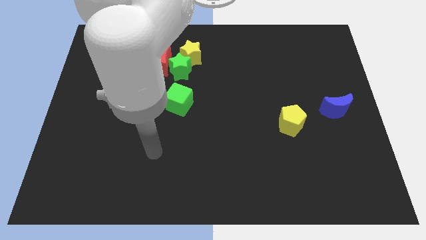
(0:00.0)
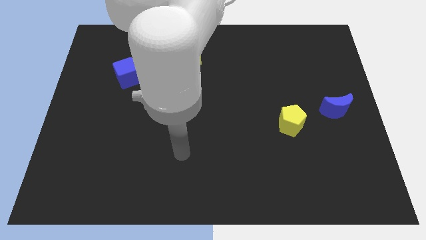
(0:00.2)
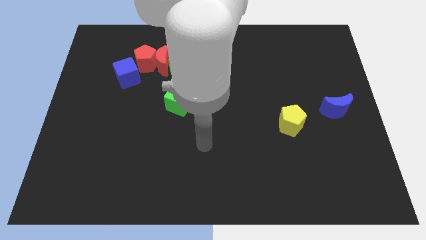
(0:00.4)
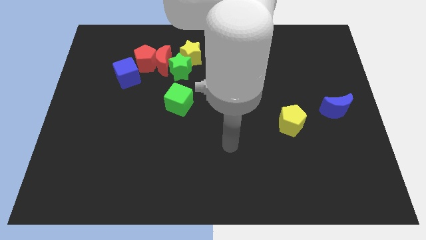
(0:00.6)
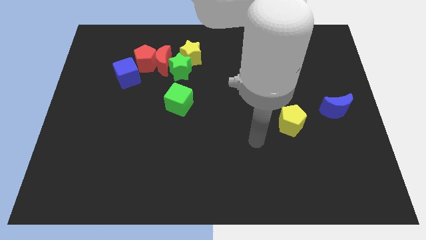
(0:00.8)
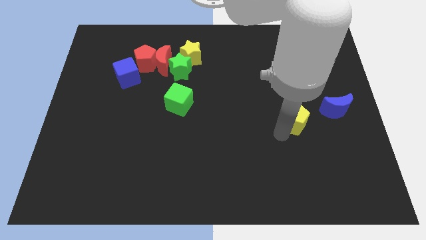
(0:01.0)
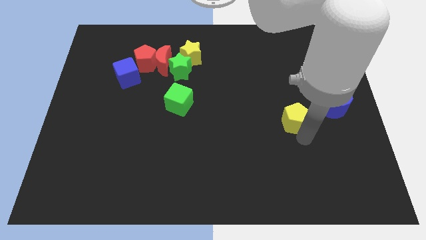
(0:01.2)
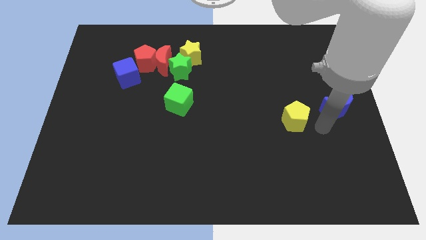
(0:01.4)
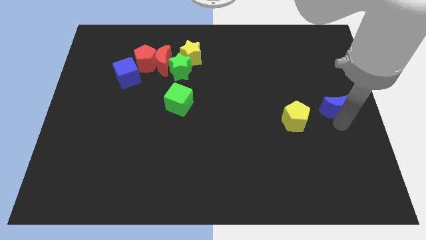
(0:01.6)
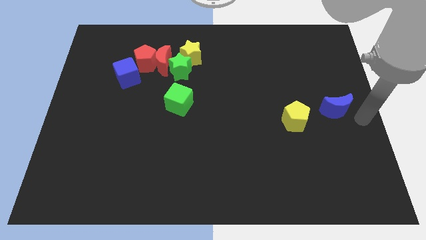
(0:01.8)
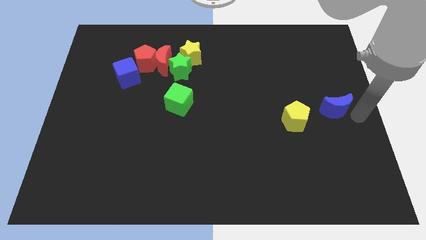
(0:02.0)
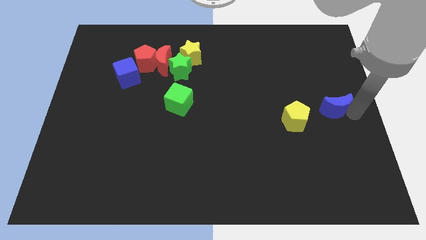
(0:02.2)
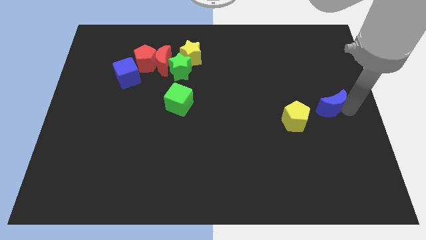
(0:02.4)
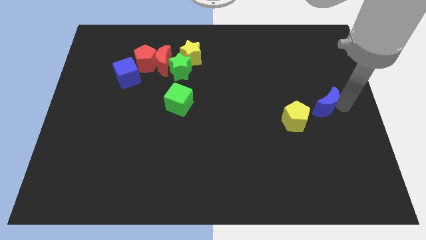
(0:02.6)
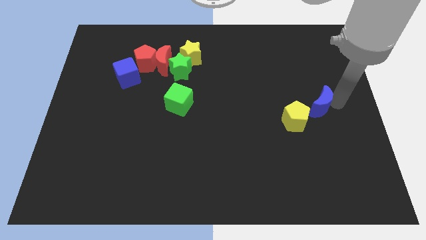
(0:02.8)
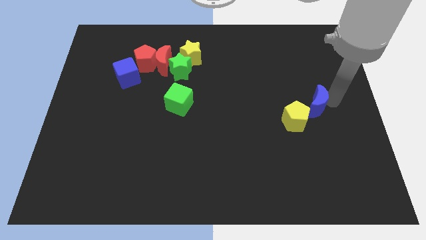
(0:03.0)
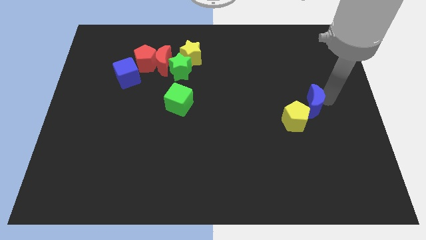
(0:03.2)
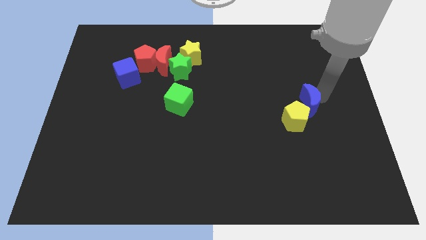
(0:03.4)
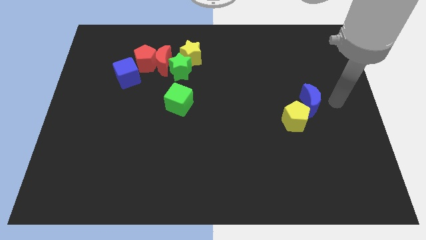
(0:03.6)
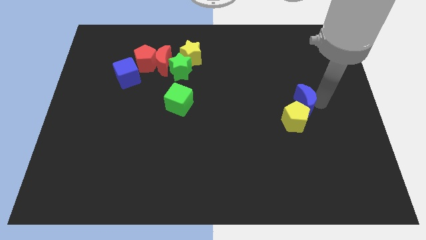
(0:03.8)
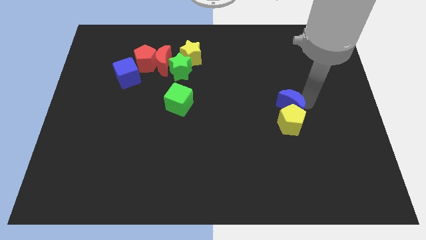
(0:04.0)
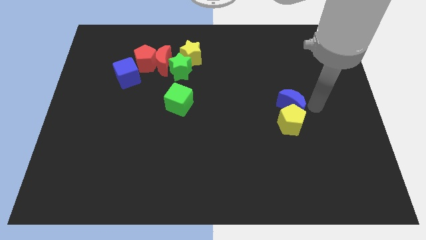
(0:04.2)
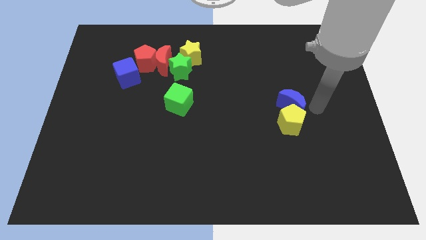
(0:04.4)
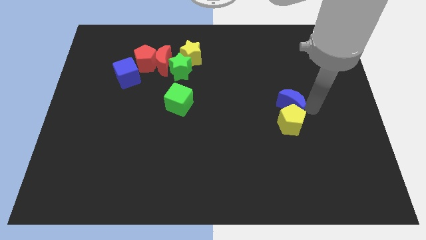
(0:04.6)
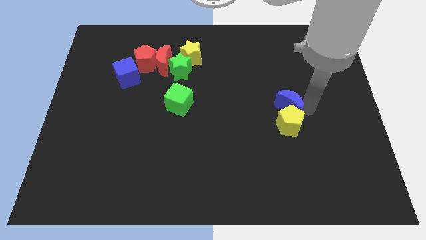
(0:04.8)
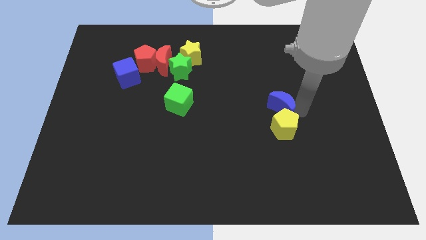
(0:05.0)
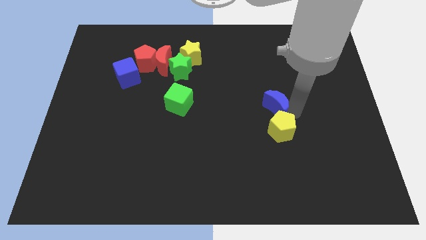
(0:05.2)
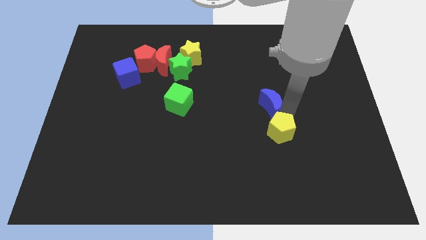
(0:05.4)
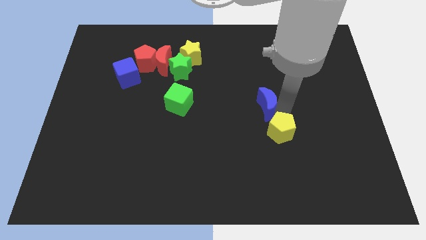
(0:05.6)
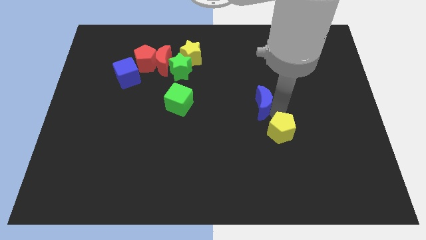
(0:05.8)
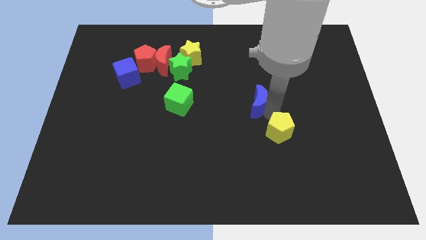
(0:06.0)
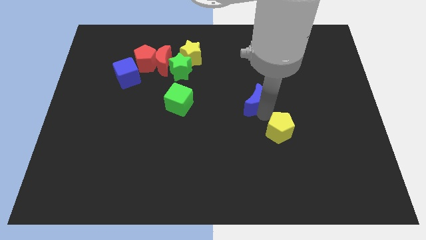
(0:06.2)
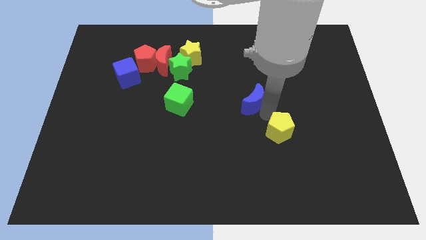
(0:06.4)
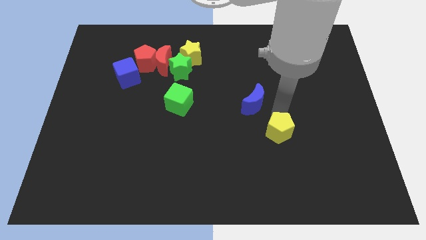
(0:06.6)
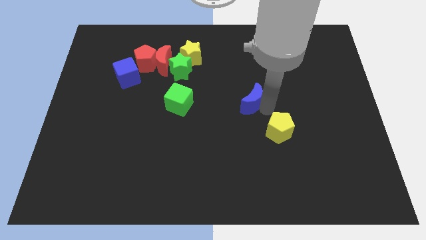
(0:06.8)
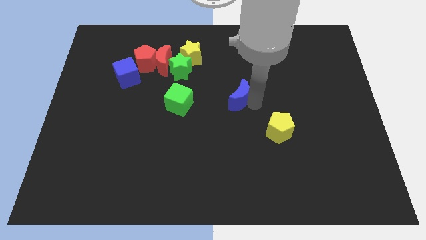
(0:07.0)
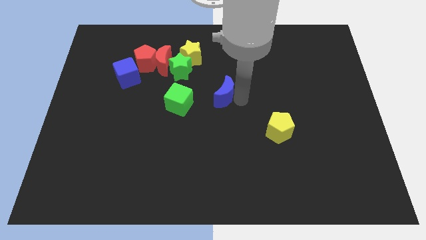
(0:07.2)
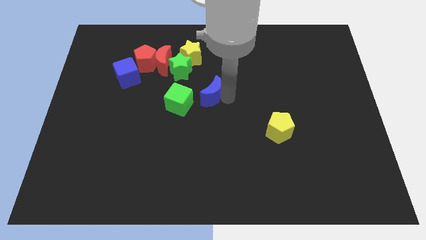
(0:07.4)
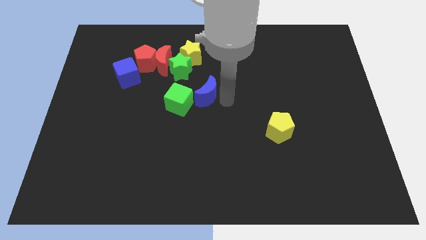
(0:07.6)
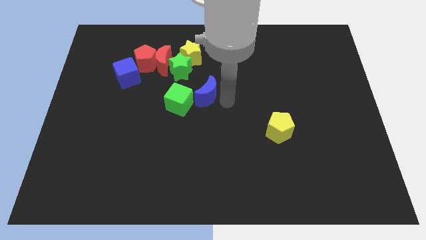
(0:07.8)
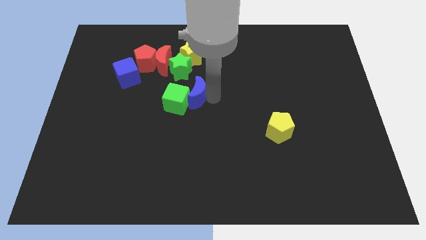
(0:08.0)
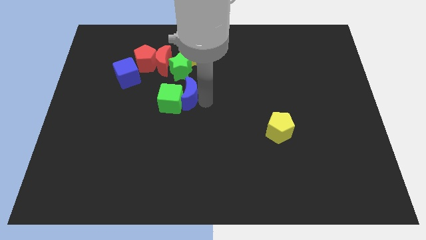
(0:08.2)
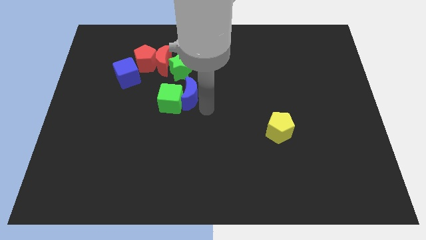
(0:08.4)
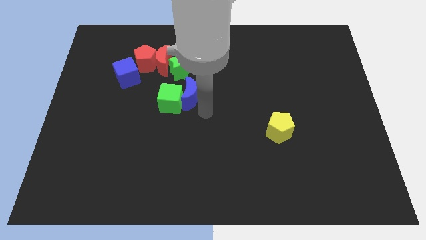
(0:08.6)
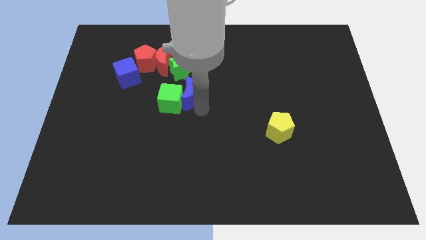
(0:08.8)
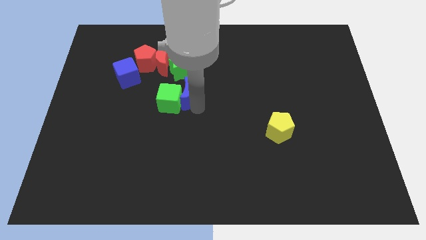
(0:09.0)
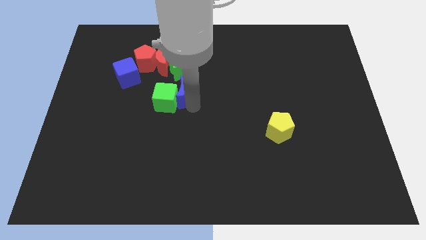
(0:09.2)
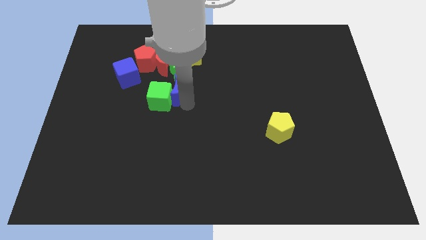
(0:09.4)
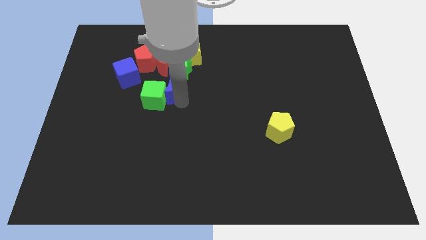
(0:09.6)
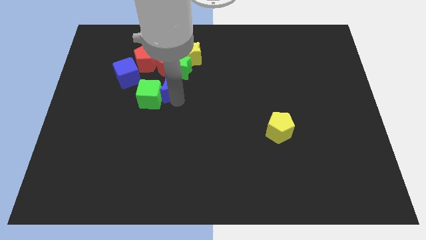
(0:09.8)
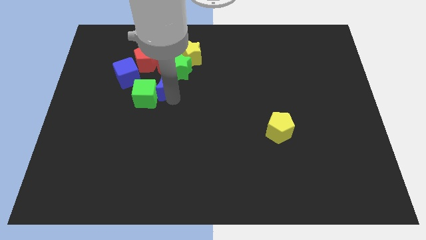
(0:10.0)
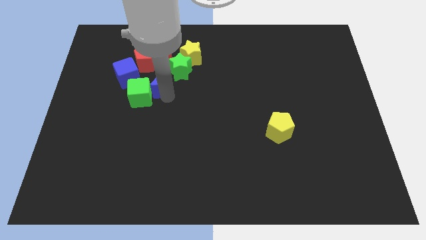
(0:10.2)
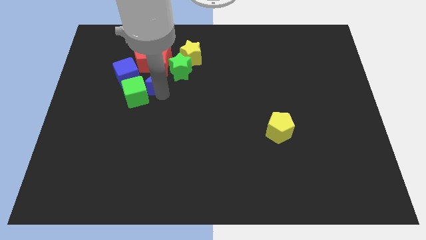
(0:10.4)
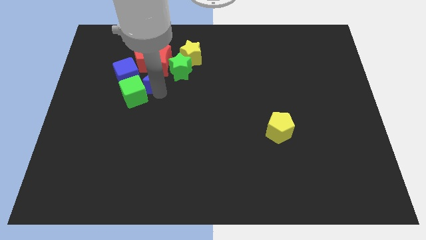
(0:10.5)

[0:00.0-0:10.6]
move the blue moon to the red moon

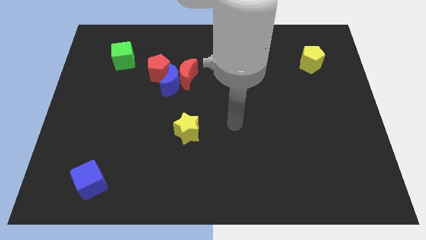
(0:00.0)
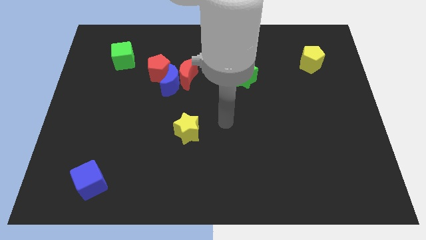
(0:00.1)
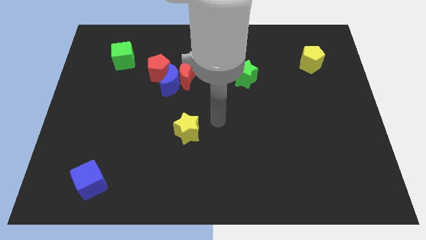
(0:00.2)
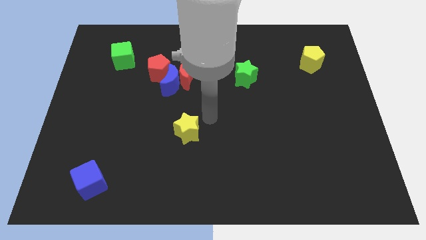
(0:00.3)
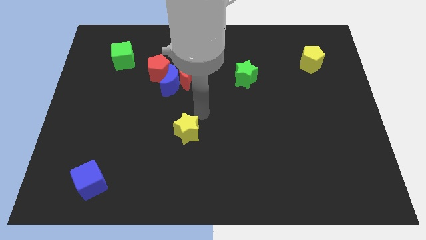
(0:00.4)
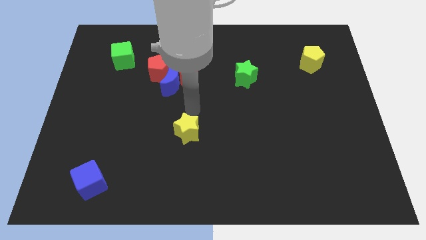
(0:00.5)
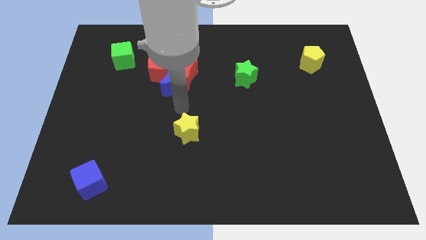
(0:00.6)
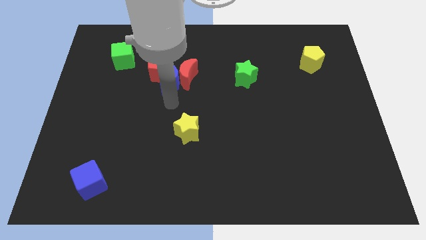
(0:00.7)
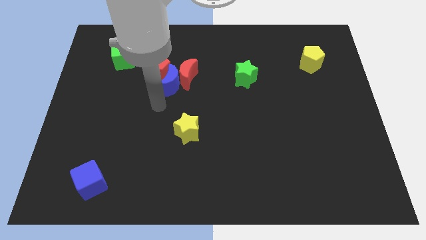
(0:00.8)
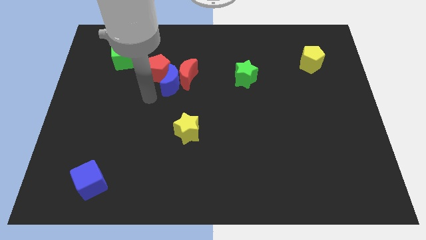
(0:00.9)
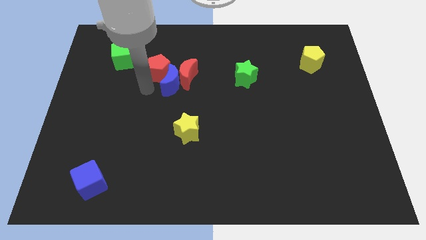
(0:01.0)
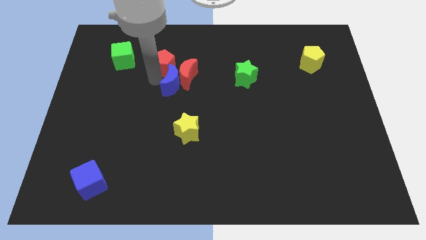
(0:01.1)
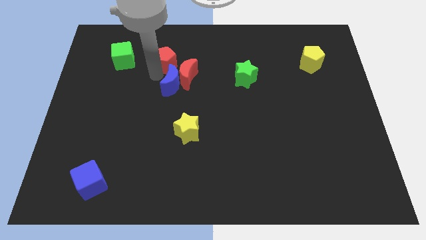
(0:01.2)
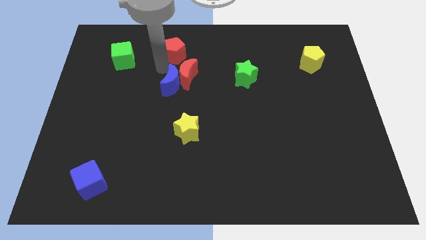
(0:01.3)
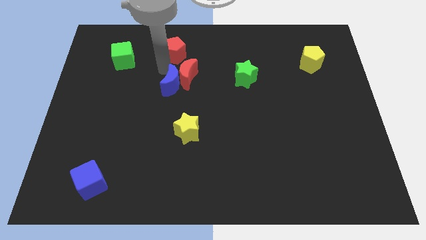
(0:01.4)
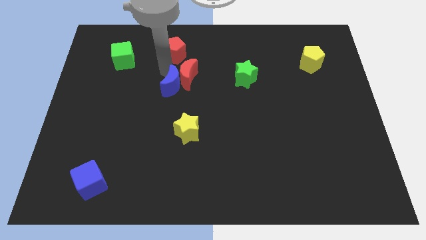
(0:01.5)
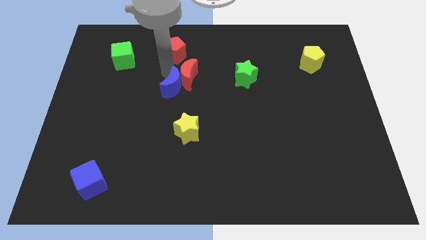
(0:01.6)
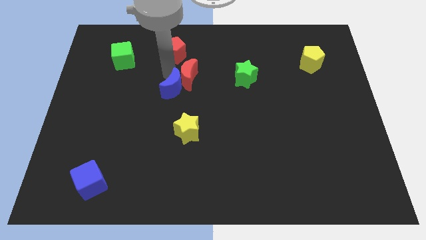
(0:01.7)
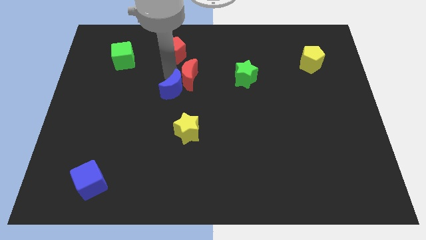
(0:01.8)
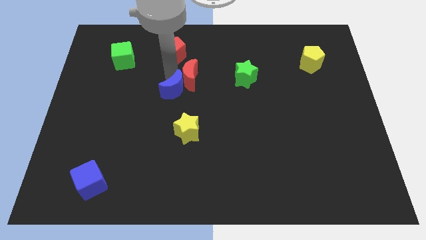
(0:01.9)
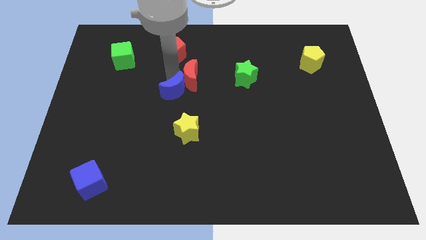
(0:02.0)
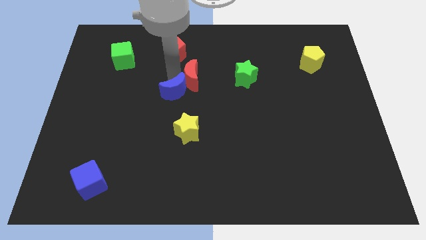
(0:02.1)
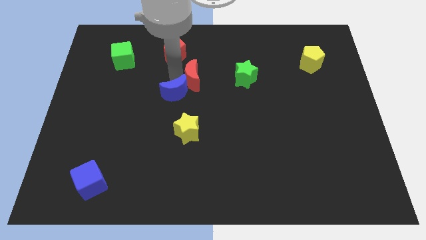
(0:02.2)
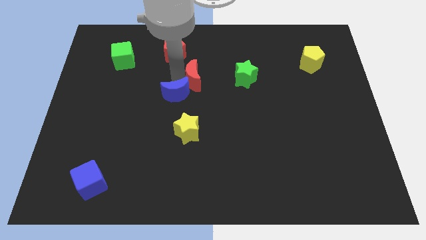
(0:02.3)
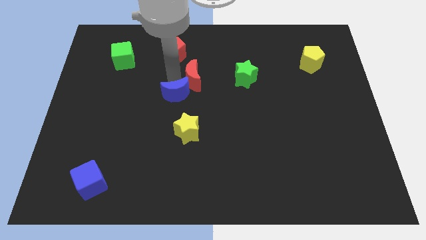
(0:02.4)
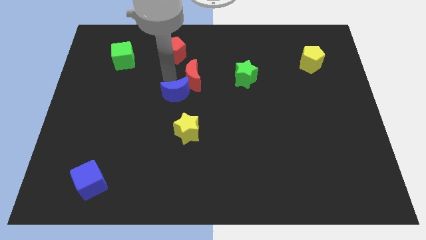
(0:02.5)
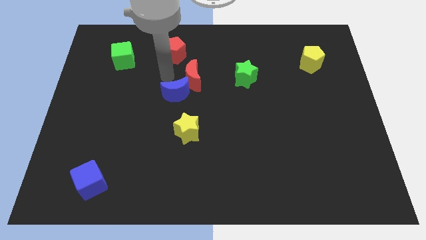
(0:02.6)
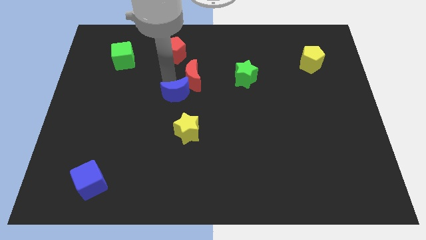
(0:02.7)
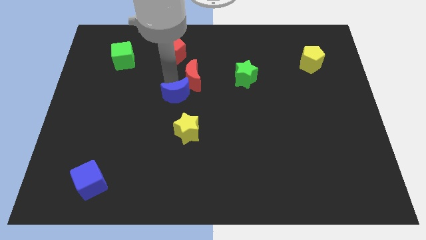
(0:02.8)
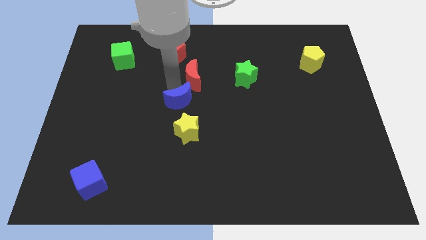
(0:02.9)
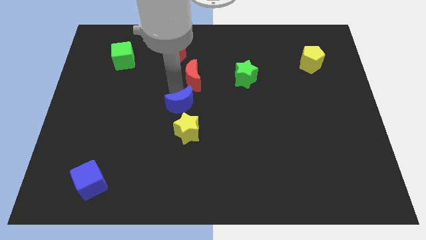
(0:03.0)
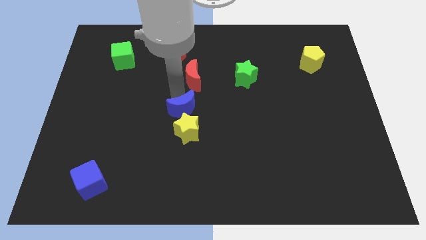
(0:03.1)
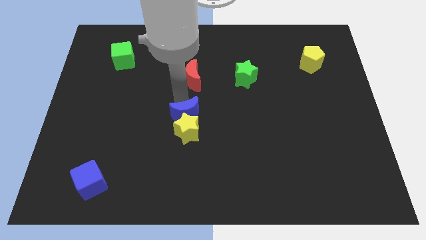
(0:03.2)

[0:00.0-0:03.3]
put the blue moon close to the yellow star
